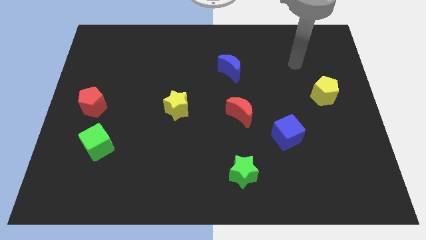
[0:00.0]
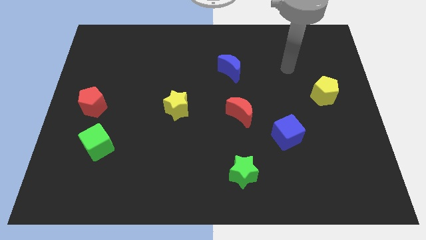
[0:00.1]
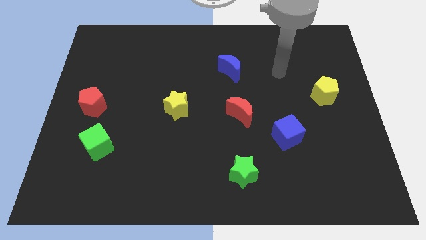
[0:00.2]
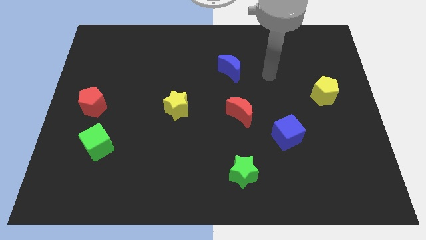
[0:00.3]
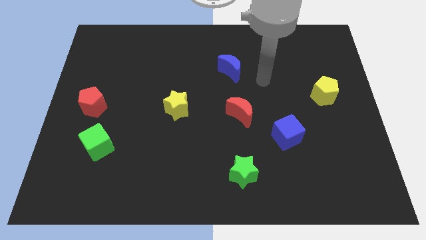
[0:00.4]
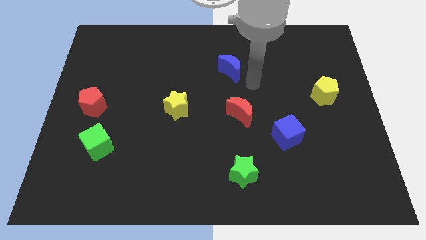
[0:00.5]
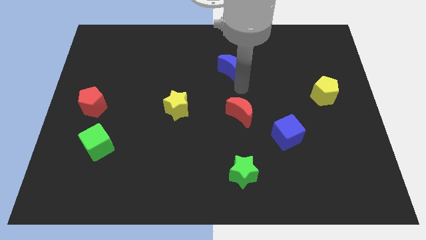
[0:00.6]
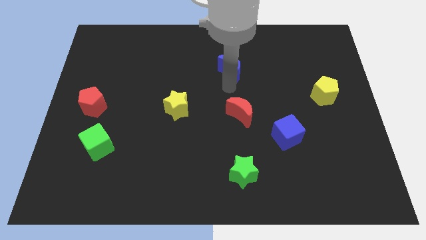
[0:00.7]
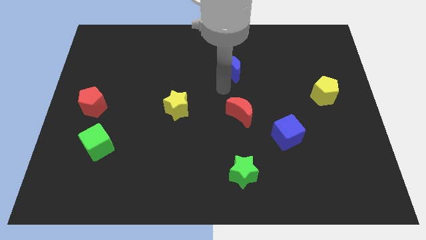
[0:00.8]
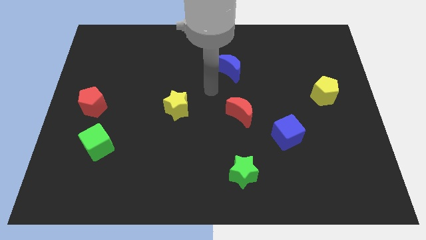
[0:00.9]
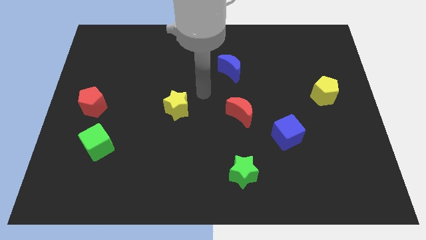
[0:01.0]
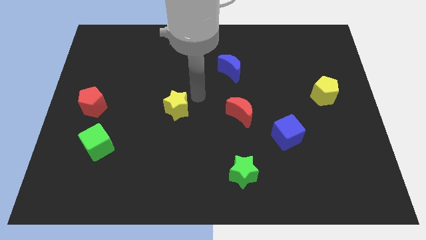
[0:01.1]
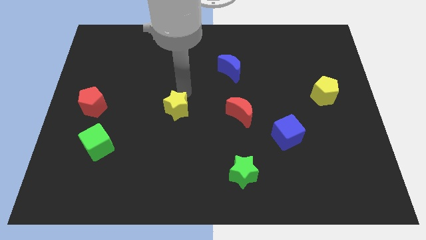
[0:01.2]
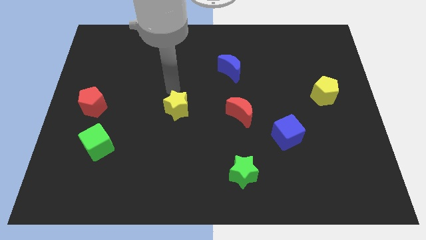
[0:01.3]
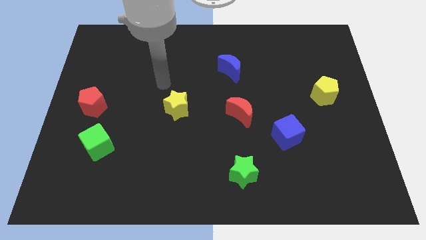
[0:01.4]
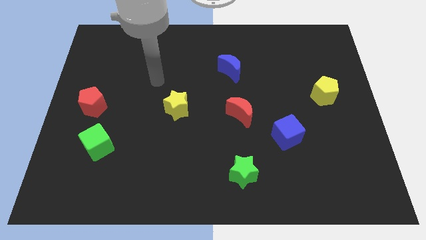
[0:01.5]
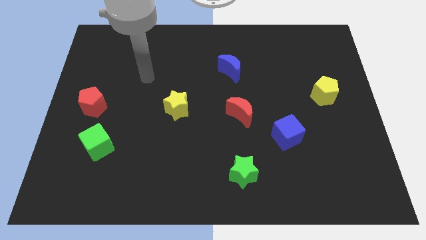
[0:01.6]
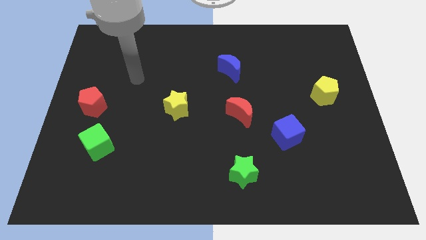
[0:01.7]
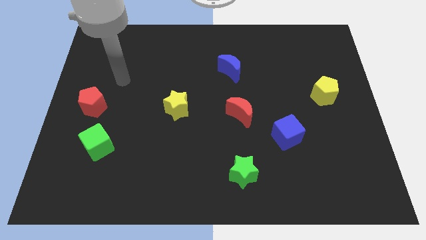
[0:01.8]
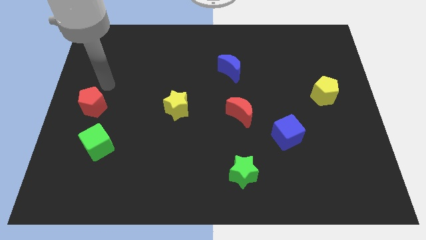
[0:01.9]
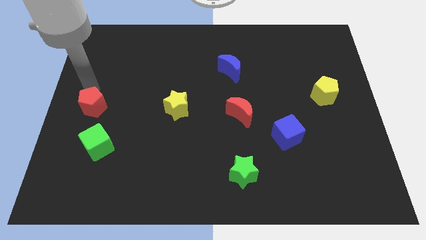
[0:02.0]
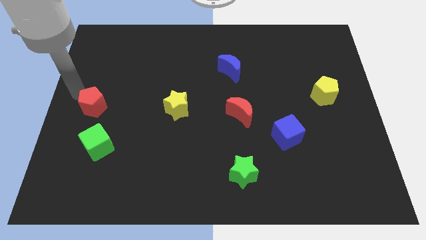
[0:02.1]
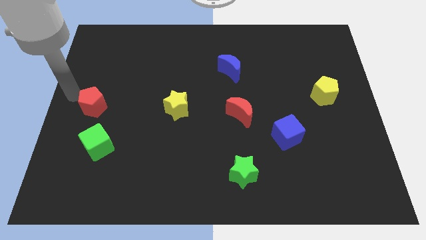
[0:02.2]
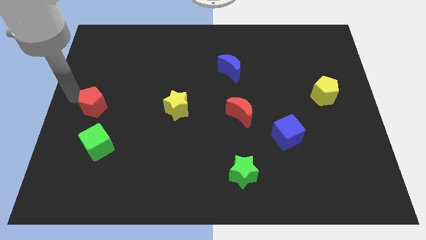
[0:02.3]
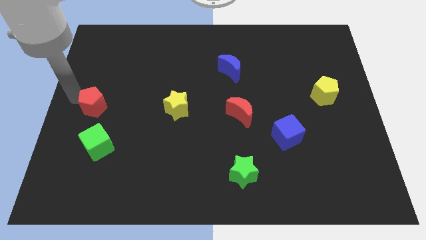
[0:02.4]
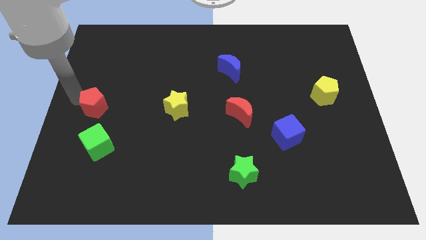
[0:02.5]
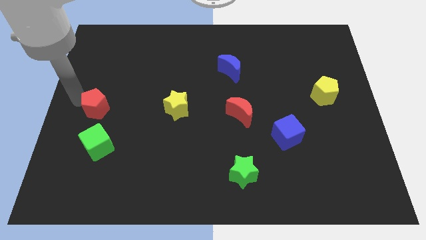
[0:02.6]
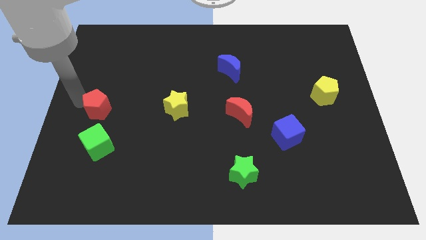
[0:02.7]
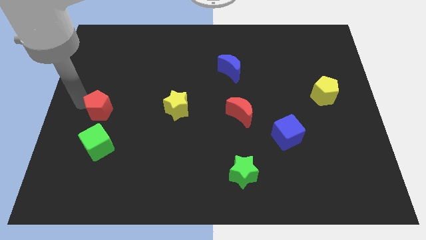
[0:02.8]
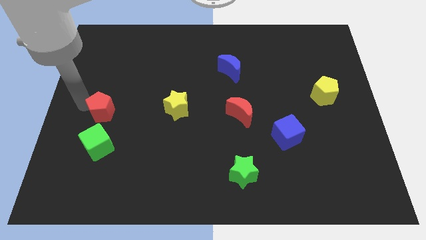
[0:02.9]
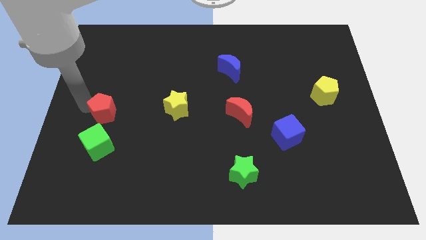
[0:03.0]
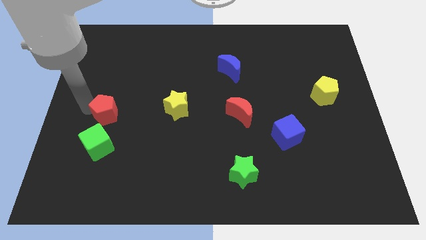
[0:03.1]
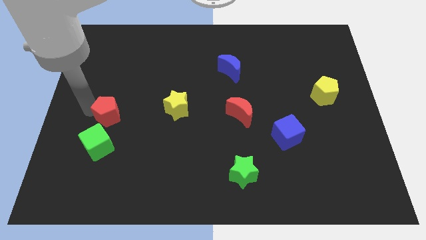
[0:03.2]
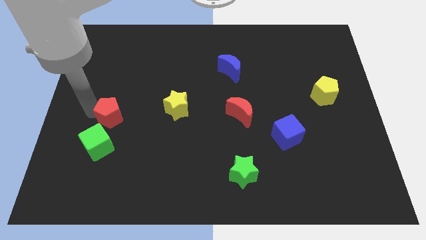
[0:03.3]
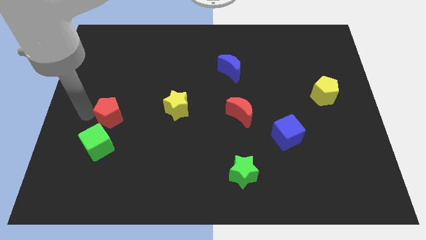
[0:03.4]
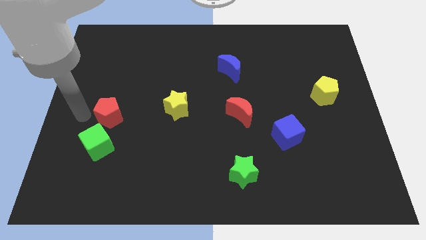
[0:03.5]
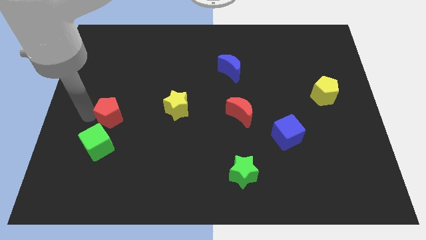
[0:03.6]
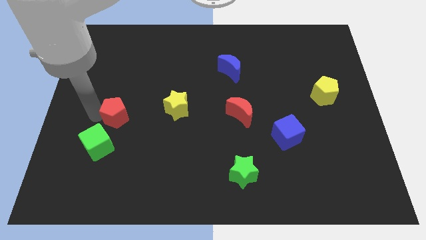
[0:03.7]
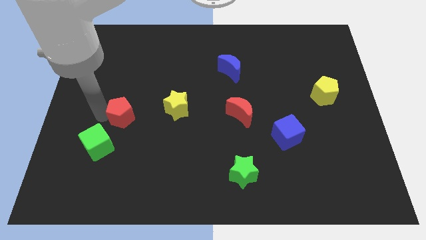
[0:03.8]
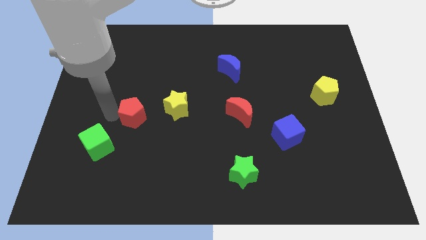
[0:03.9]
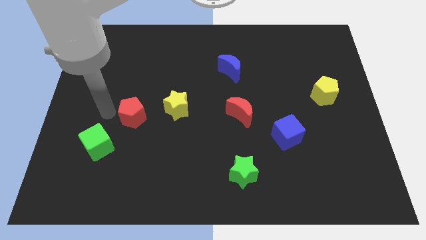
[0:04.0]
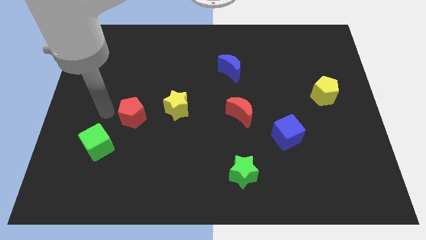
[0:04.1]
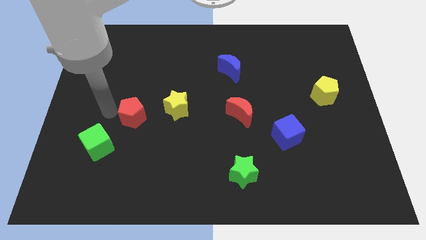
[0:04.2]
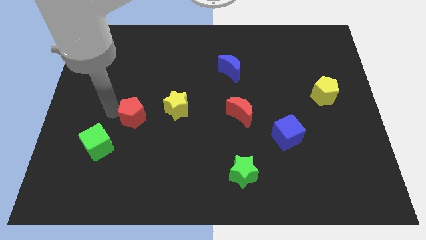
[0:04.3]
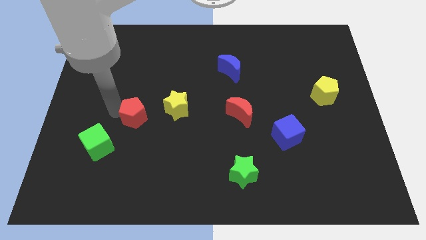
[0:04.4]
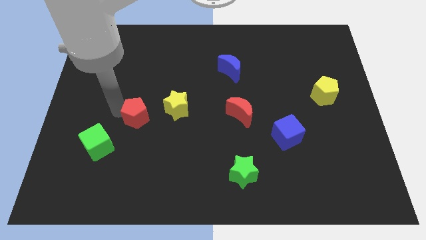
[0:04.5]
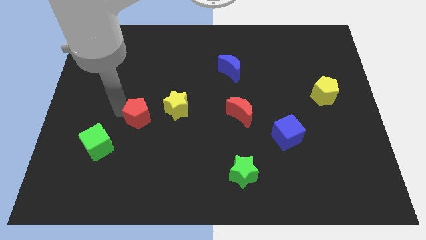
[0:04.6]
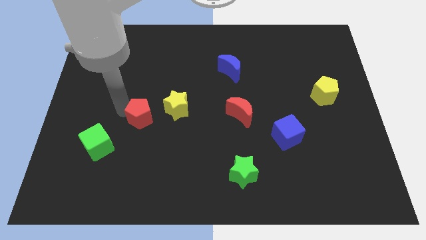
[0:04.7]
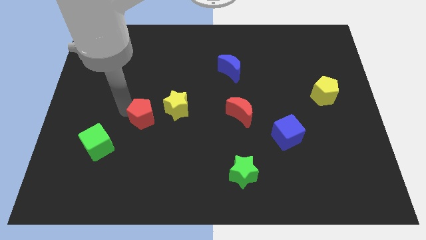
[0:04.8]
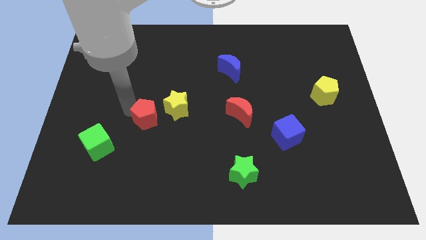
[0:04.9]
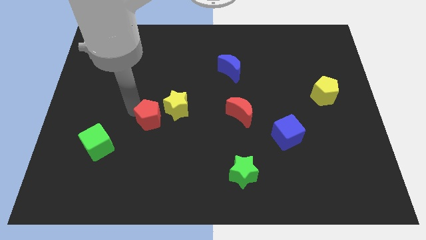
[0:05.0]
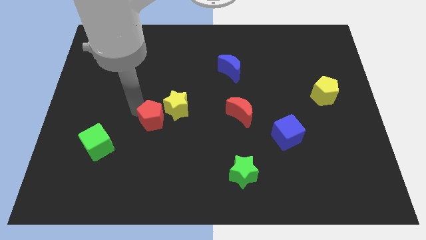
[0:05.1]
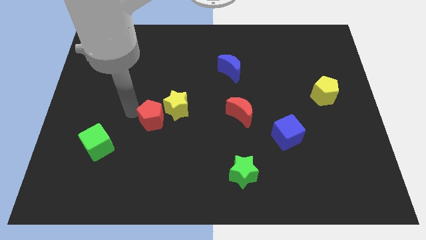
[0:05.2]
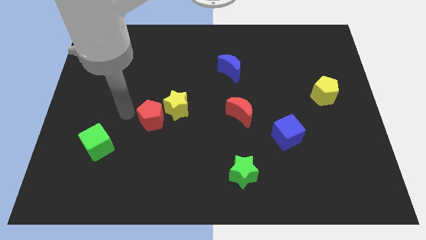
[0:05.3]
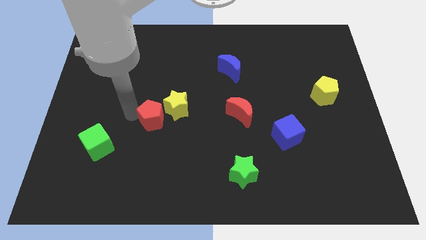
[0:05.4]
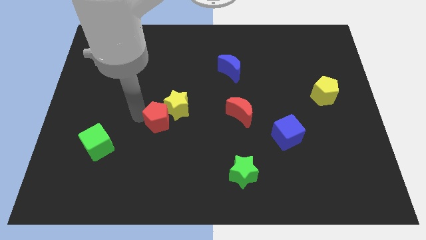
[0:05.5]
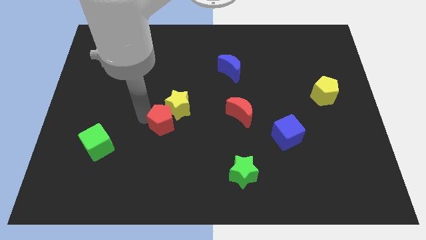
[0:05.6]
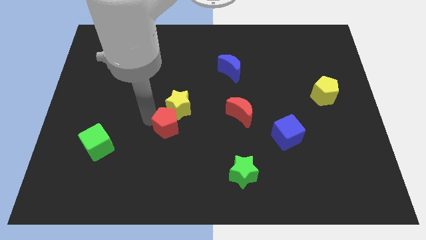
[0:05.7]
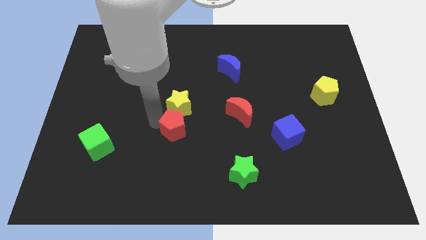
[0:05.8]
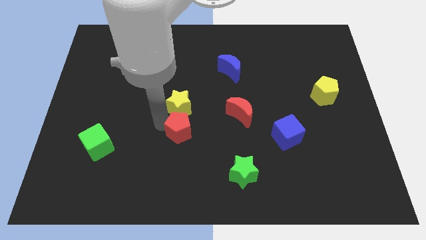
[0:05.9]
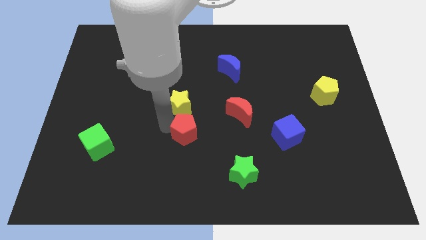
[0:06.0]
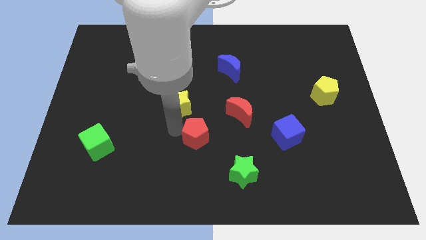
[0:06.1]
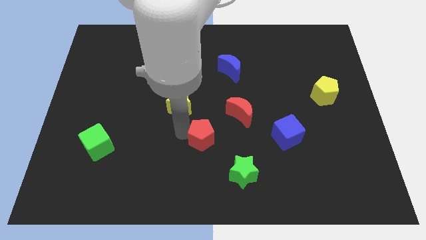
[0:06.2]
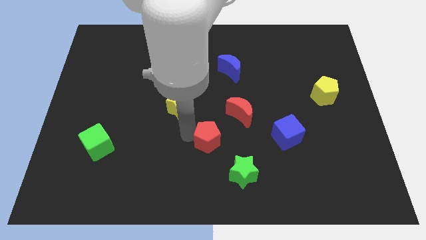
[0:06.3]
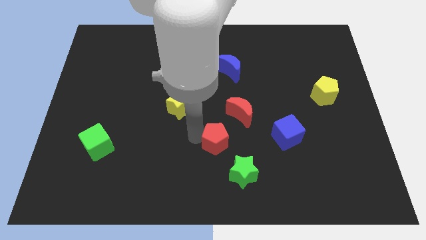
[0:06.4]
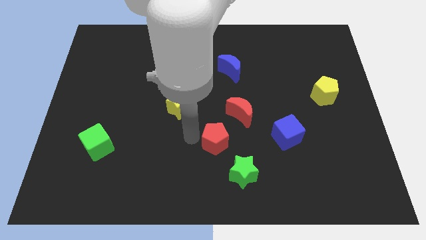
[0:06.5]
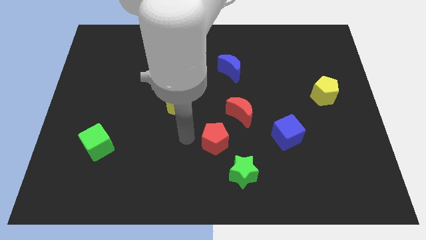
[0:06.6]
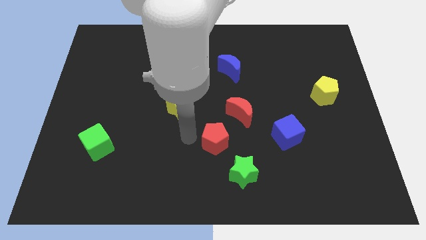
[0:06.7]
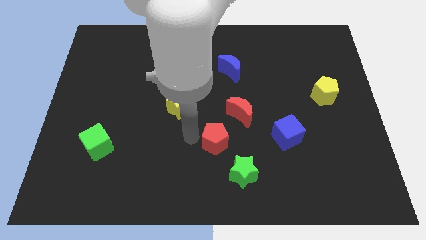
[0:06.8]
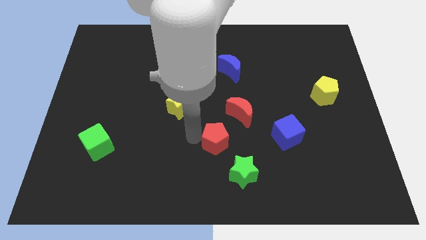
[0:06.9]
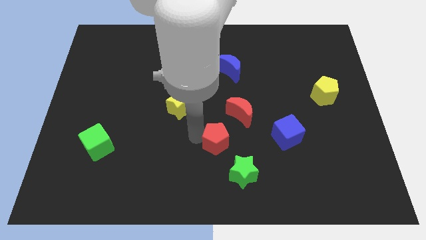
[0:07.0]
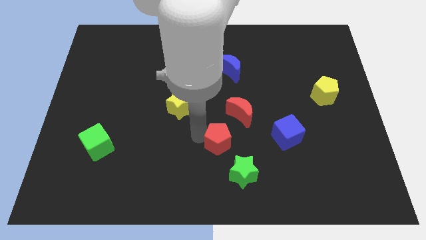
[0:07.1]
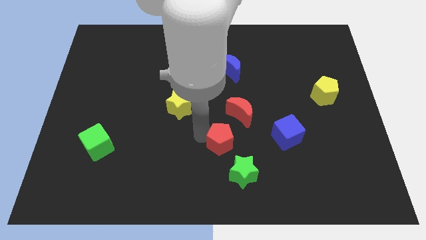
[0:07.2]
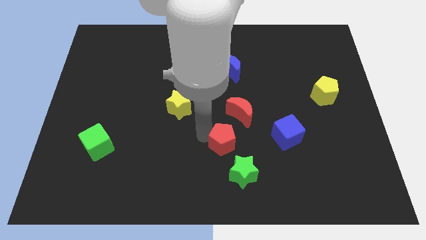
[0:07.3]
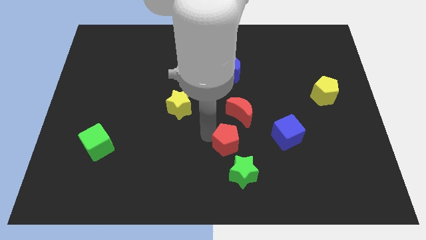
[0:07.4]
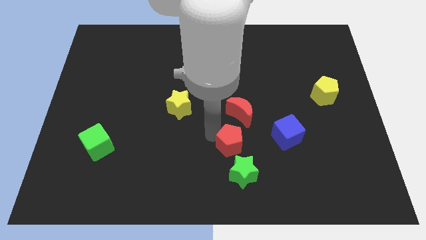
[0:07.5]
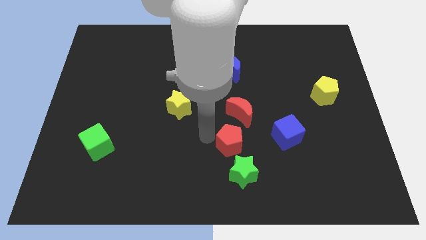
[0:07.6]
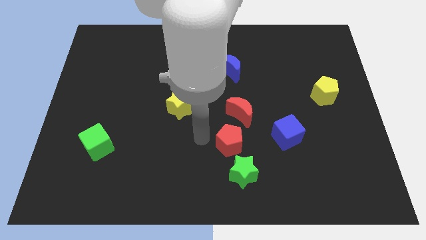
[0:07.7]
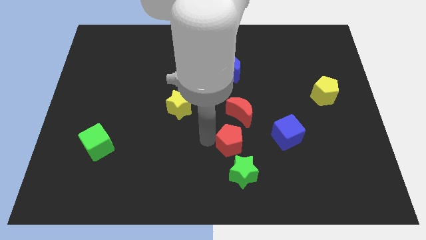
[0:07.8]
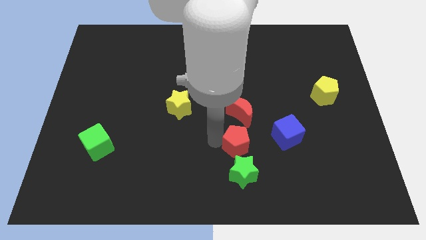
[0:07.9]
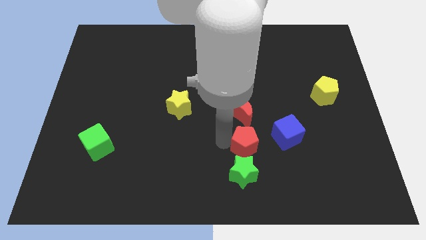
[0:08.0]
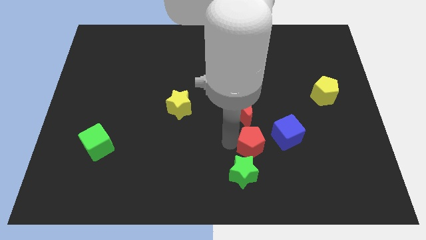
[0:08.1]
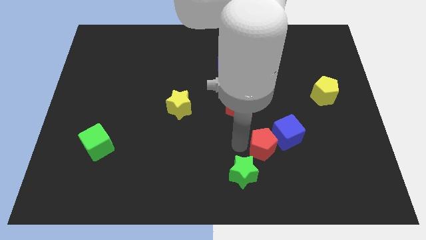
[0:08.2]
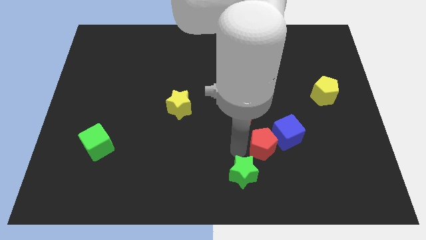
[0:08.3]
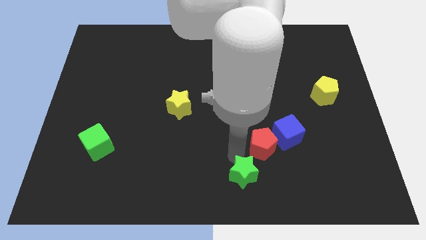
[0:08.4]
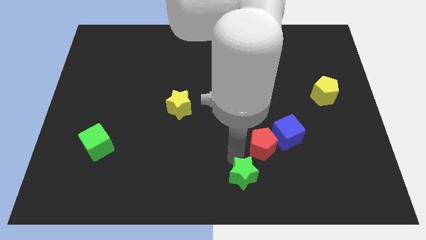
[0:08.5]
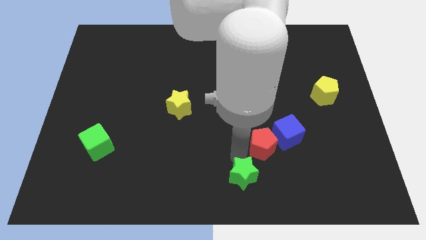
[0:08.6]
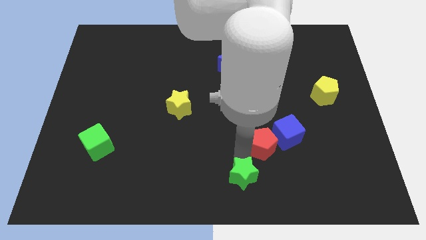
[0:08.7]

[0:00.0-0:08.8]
move the red pentagon towards the blue cube
